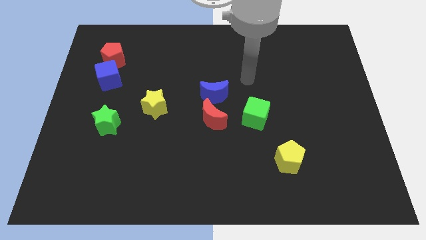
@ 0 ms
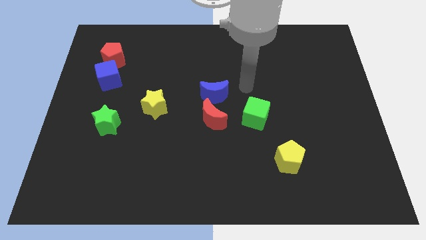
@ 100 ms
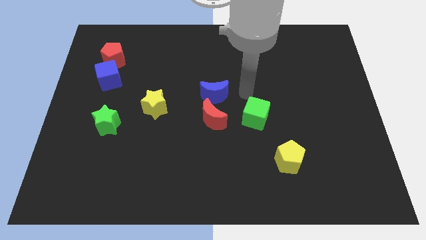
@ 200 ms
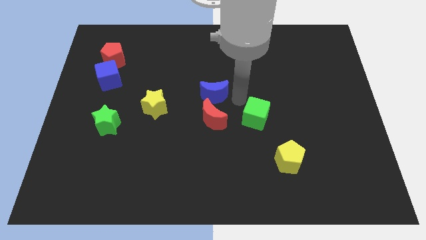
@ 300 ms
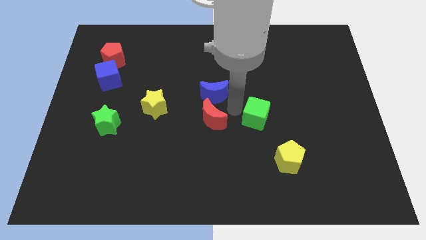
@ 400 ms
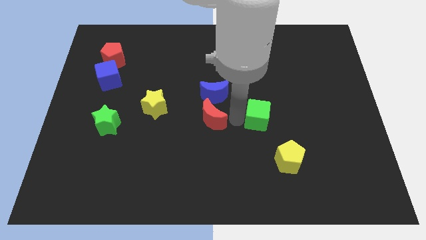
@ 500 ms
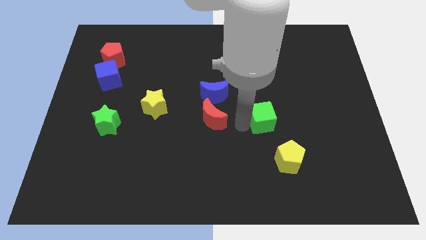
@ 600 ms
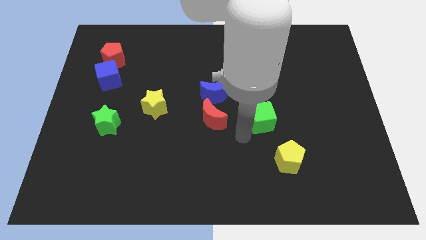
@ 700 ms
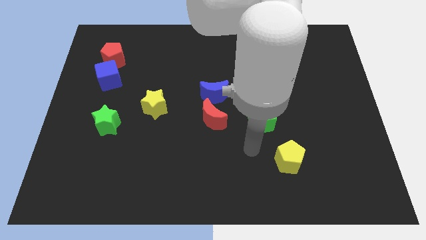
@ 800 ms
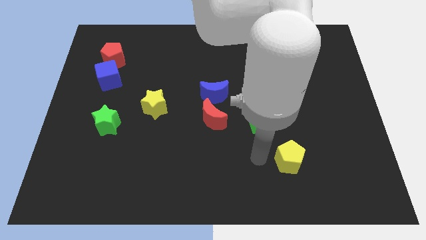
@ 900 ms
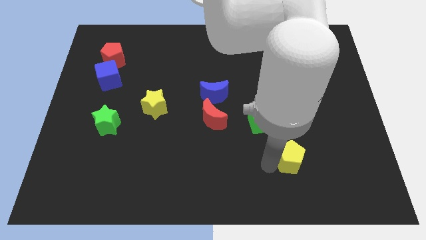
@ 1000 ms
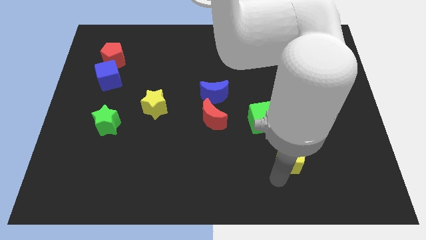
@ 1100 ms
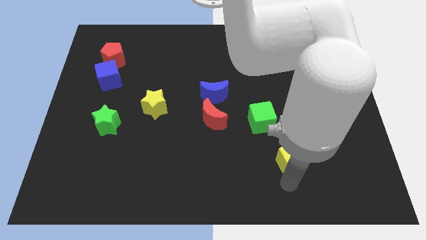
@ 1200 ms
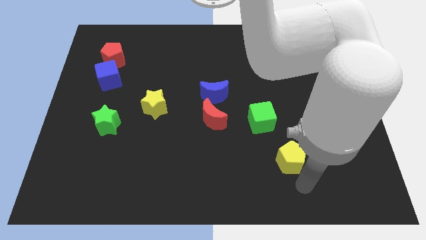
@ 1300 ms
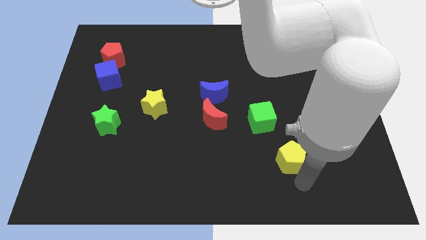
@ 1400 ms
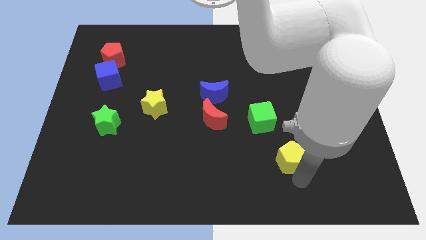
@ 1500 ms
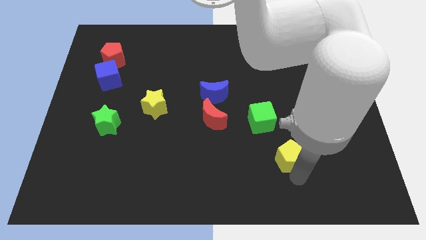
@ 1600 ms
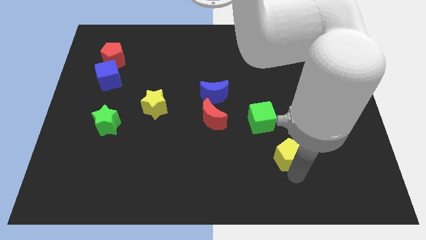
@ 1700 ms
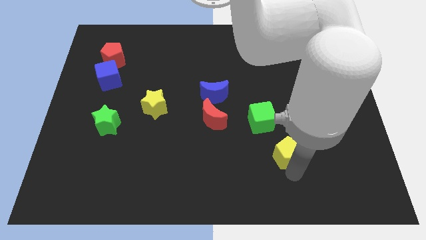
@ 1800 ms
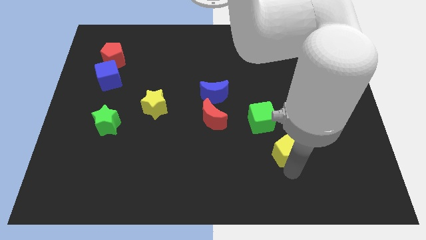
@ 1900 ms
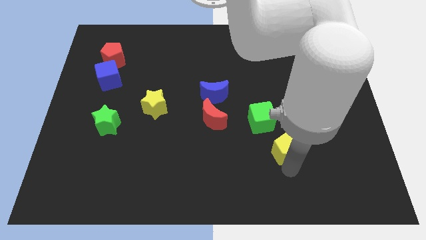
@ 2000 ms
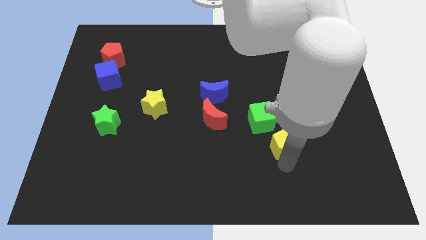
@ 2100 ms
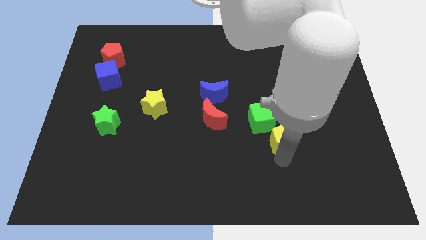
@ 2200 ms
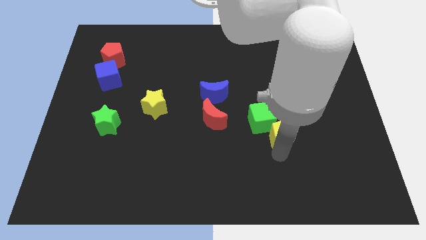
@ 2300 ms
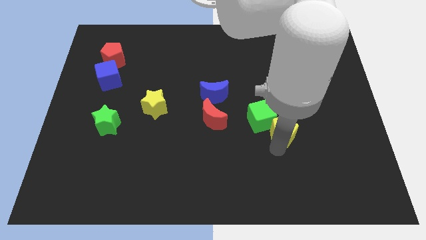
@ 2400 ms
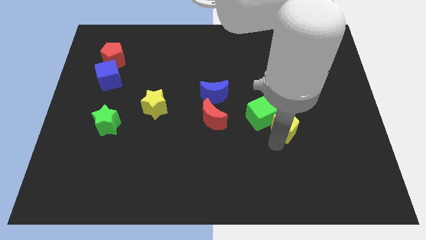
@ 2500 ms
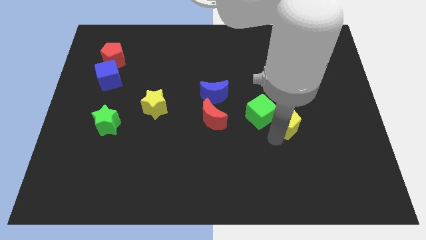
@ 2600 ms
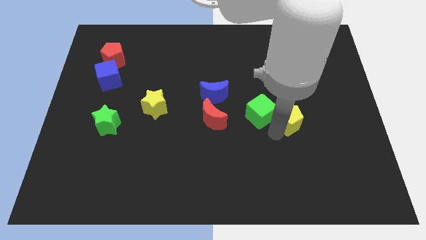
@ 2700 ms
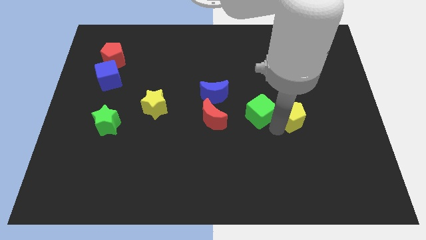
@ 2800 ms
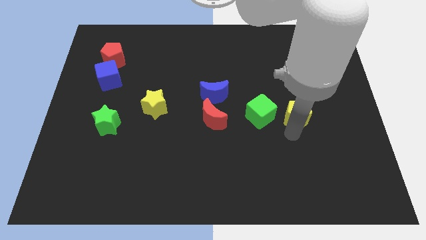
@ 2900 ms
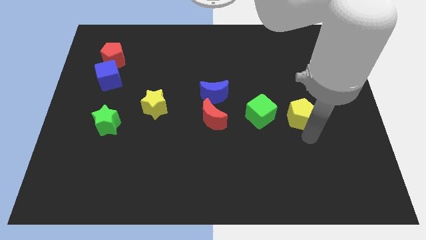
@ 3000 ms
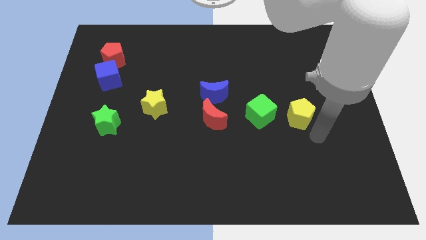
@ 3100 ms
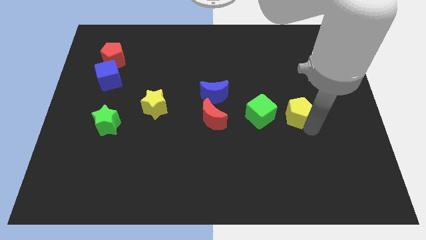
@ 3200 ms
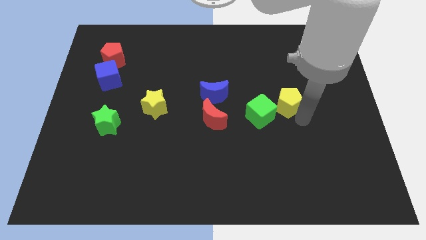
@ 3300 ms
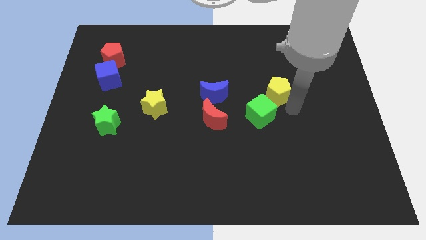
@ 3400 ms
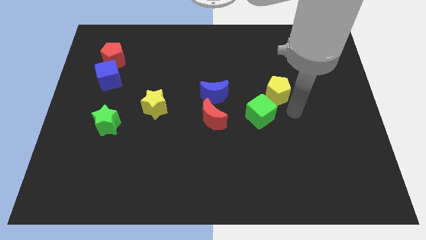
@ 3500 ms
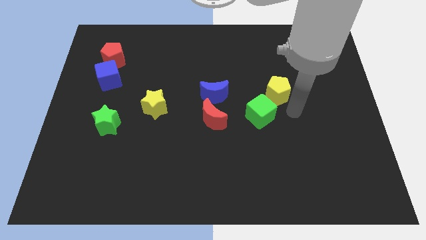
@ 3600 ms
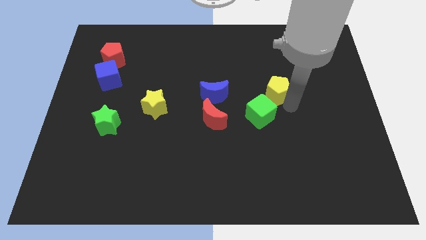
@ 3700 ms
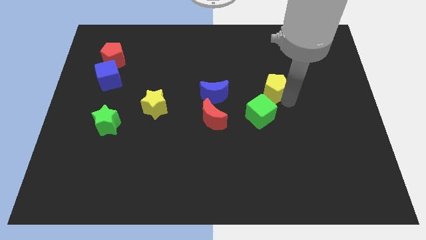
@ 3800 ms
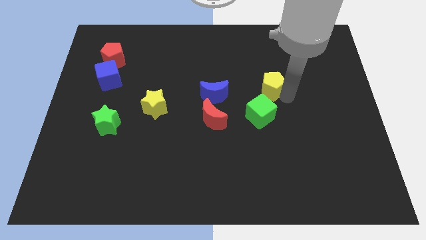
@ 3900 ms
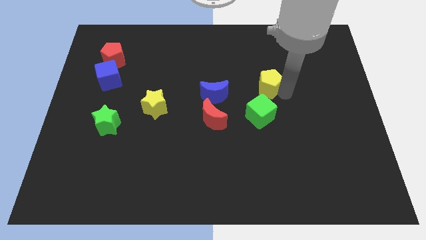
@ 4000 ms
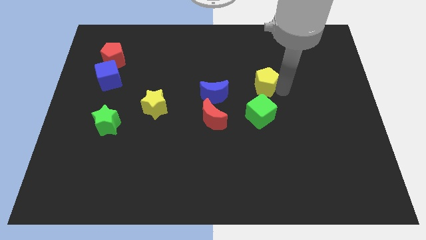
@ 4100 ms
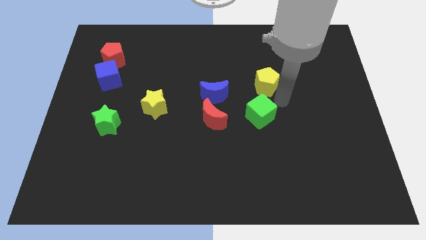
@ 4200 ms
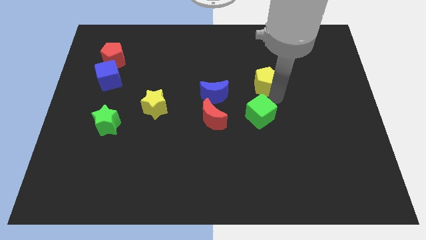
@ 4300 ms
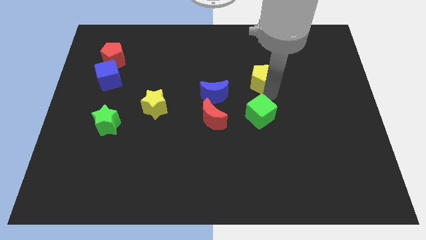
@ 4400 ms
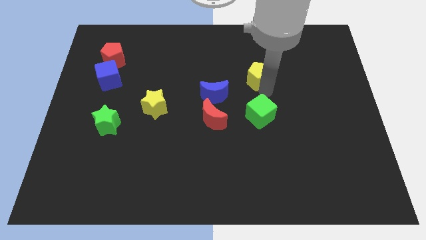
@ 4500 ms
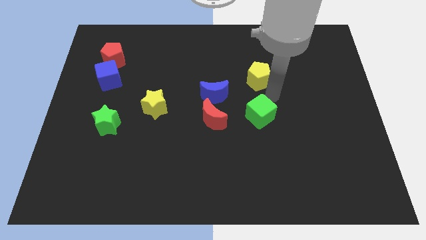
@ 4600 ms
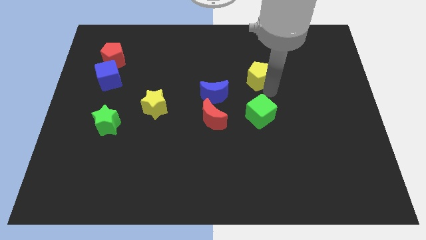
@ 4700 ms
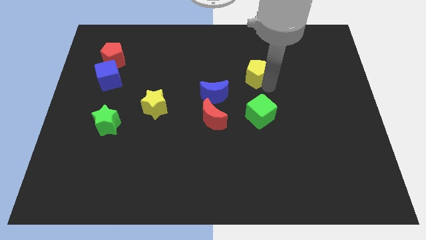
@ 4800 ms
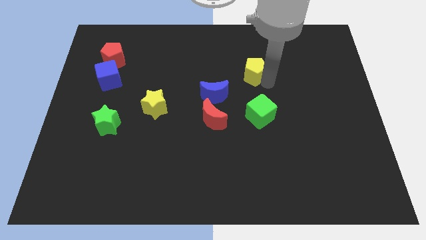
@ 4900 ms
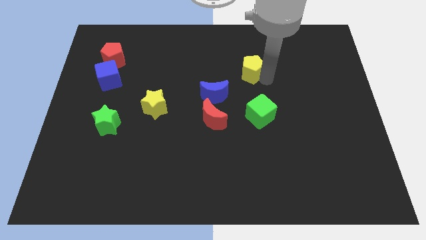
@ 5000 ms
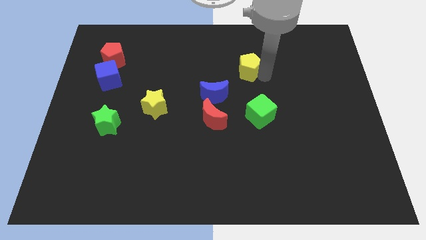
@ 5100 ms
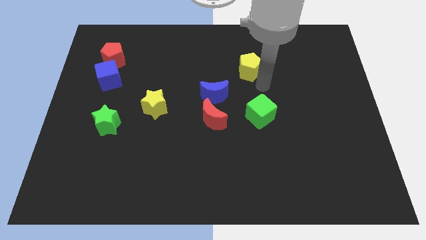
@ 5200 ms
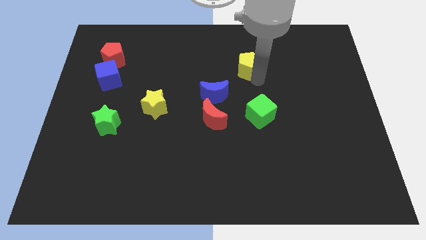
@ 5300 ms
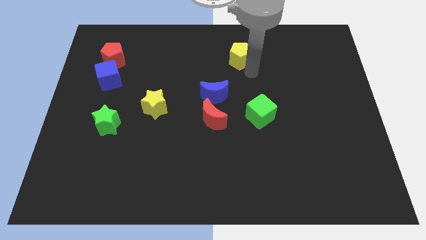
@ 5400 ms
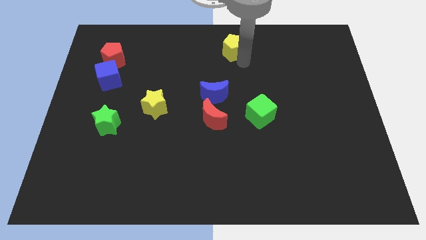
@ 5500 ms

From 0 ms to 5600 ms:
move the yellow pentagon to the top
